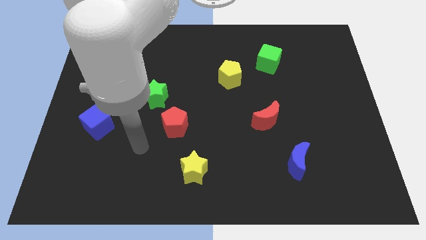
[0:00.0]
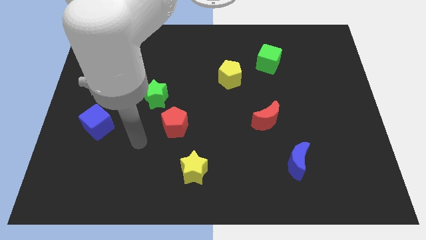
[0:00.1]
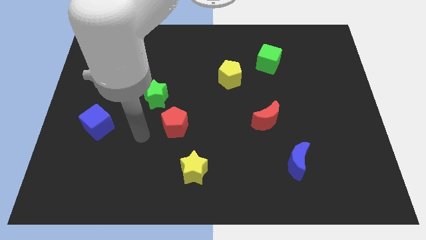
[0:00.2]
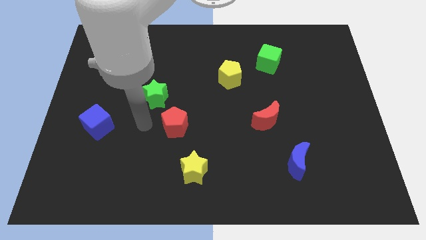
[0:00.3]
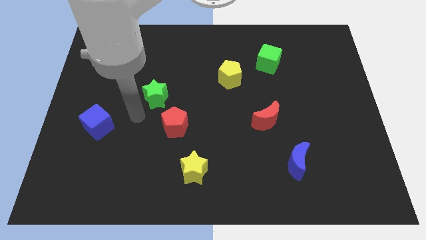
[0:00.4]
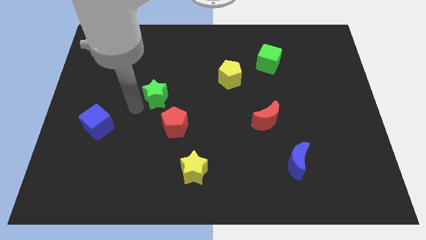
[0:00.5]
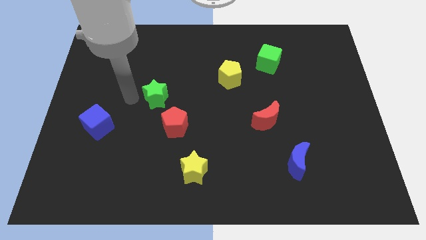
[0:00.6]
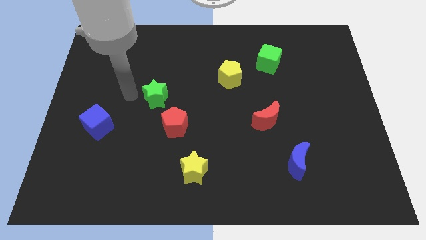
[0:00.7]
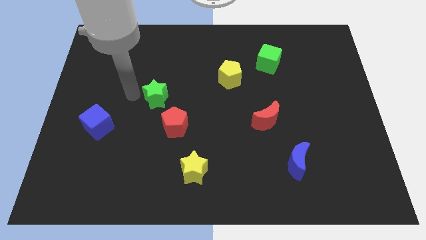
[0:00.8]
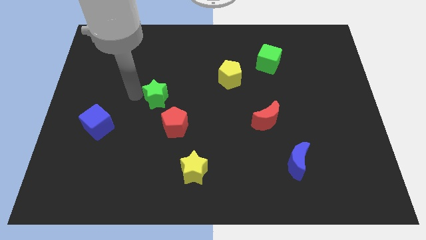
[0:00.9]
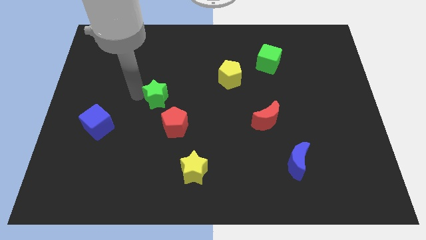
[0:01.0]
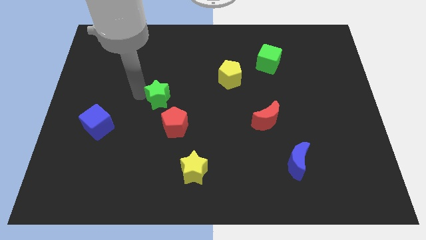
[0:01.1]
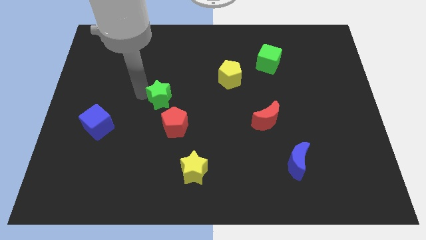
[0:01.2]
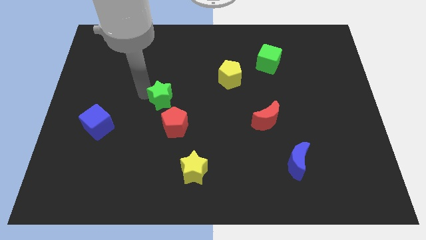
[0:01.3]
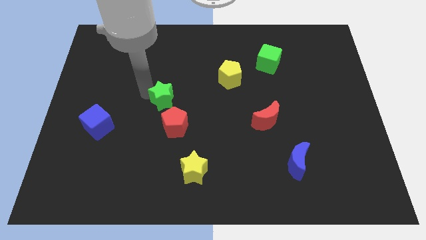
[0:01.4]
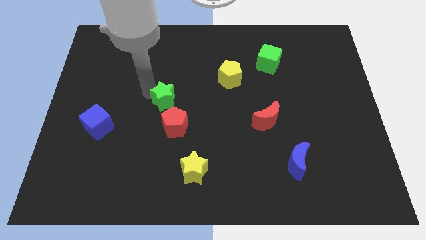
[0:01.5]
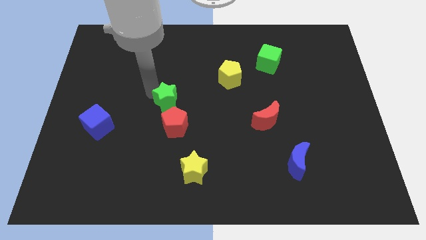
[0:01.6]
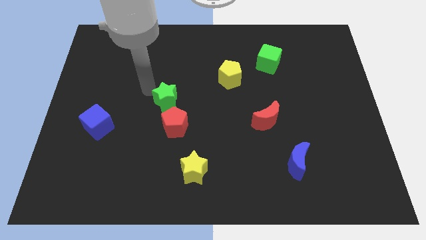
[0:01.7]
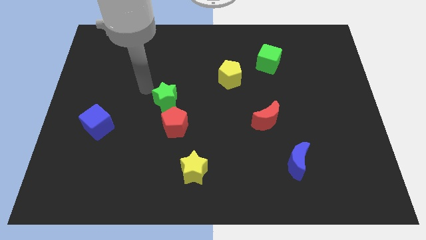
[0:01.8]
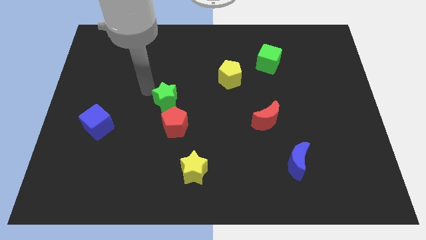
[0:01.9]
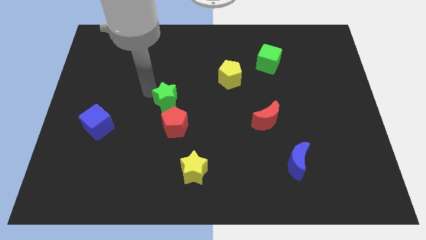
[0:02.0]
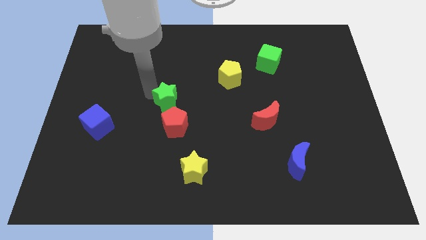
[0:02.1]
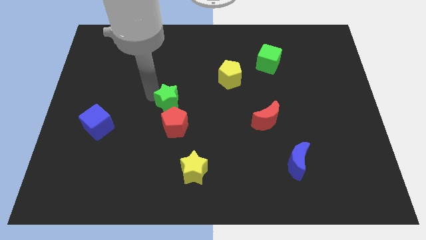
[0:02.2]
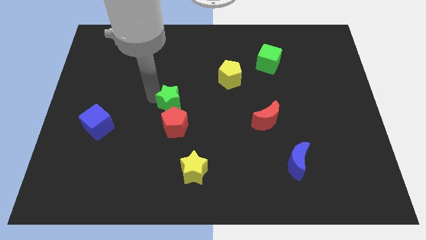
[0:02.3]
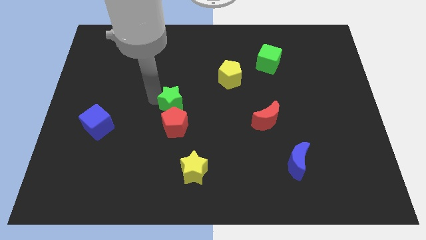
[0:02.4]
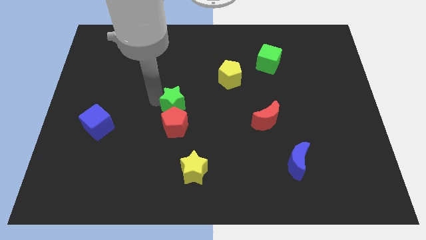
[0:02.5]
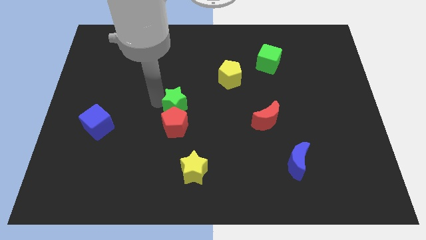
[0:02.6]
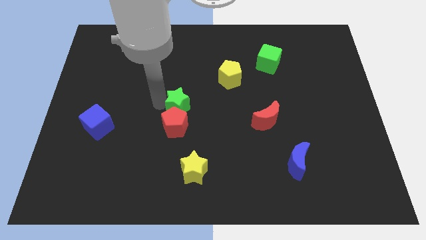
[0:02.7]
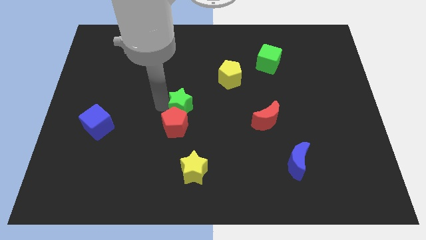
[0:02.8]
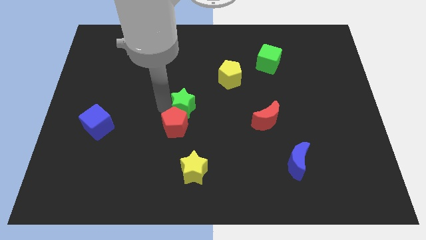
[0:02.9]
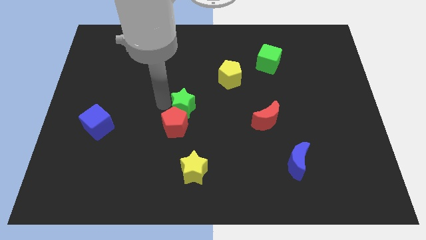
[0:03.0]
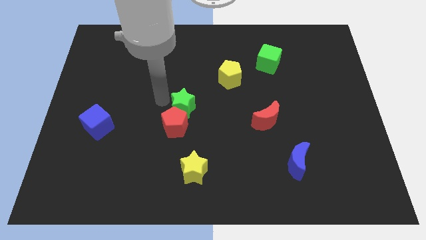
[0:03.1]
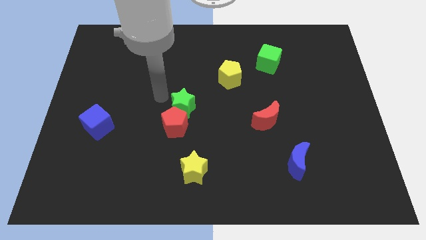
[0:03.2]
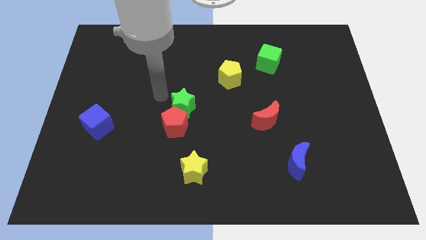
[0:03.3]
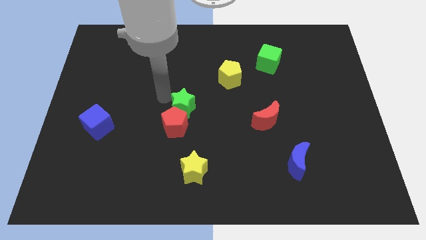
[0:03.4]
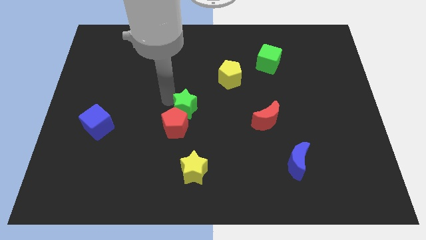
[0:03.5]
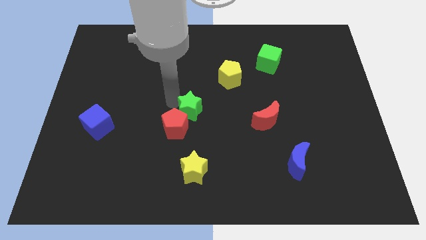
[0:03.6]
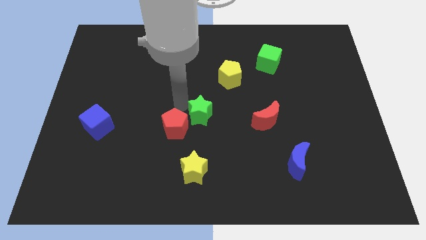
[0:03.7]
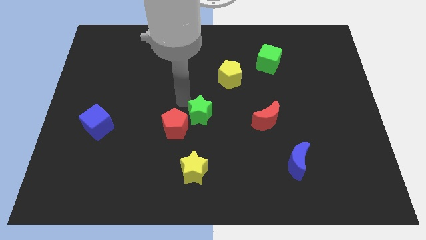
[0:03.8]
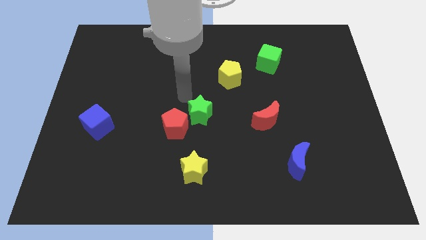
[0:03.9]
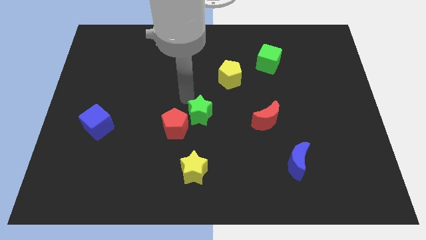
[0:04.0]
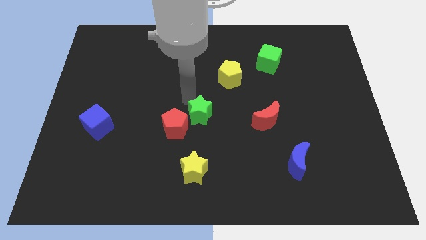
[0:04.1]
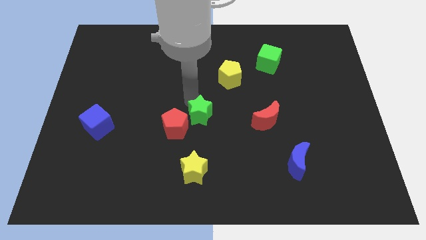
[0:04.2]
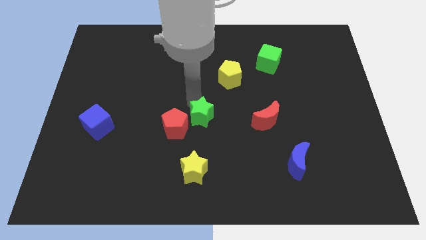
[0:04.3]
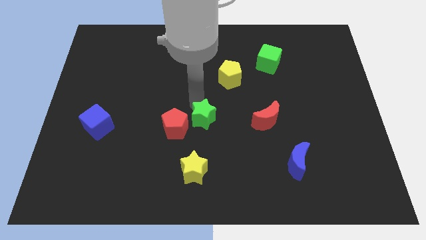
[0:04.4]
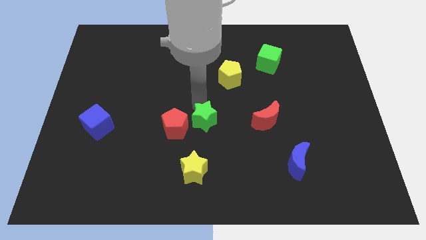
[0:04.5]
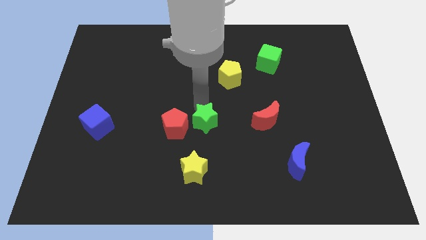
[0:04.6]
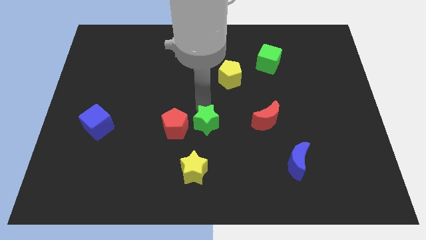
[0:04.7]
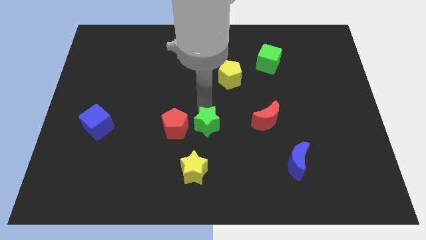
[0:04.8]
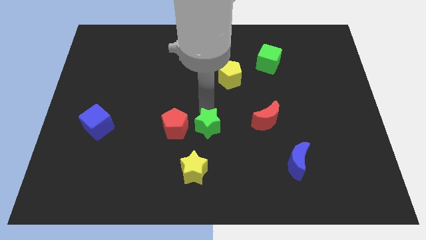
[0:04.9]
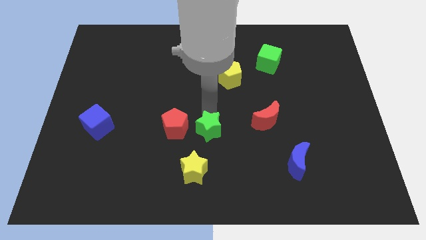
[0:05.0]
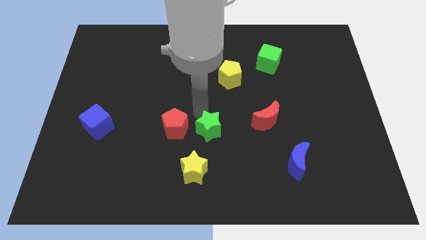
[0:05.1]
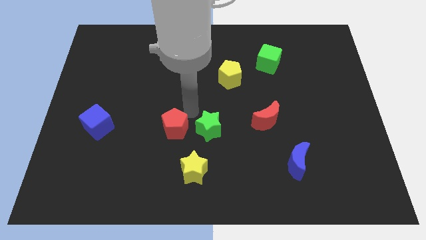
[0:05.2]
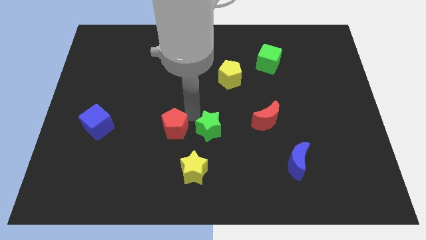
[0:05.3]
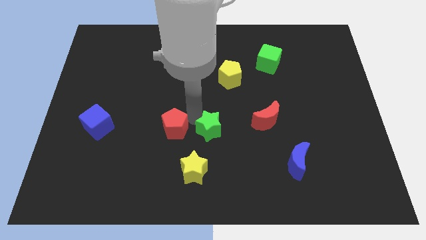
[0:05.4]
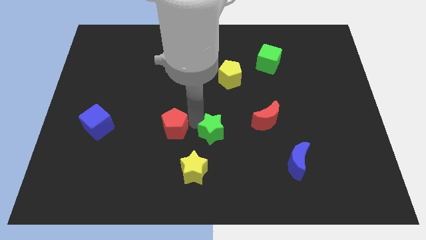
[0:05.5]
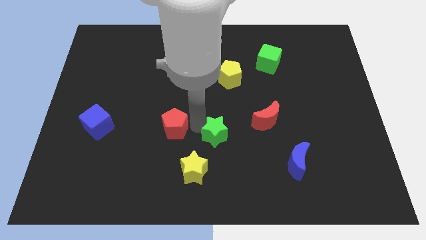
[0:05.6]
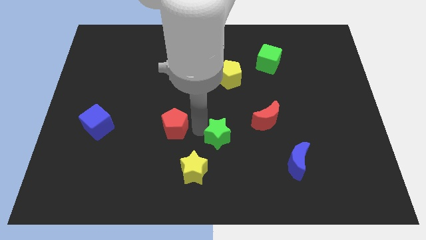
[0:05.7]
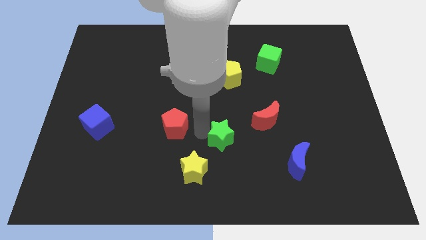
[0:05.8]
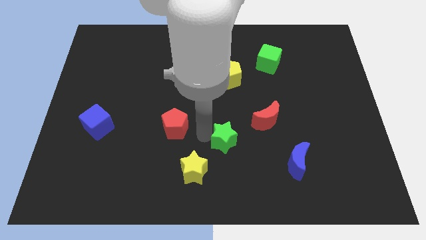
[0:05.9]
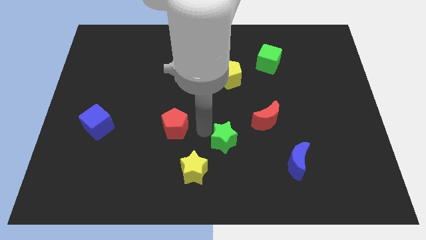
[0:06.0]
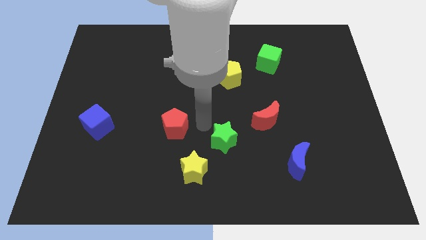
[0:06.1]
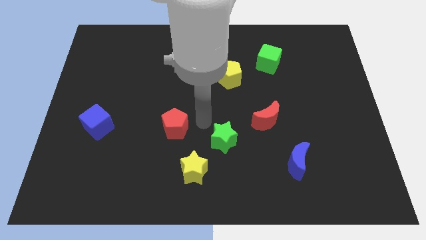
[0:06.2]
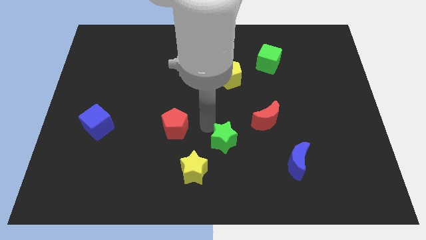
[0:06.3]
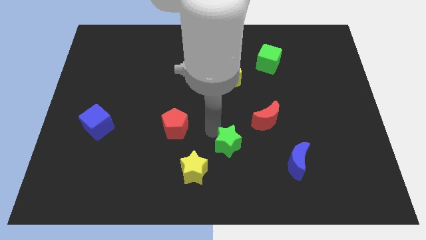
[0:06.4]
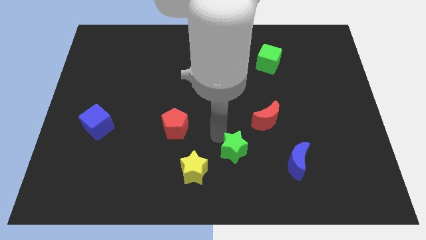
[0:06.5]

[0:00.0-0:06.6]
slide the green star just left of the blue moon

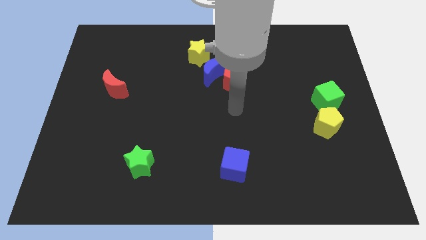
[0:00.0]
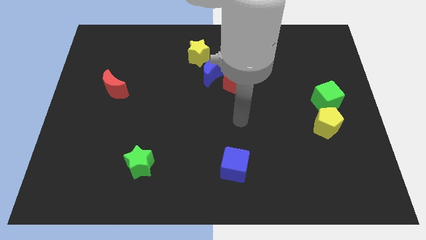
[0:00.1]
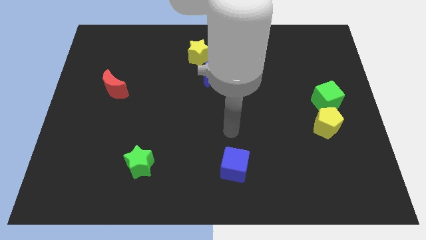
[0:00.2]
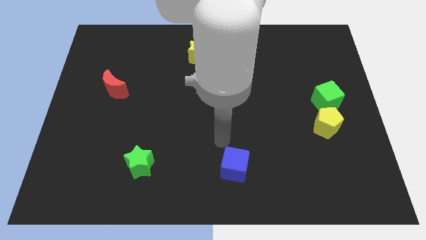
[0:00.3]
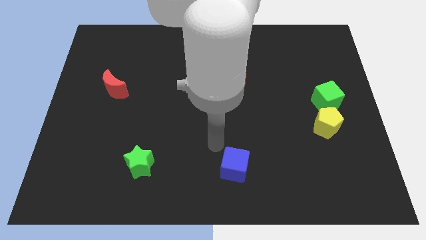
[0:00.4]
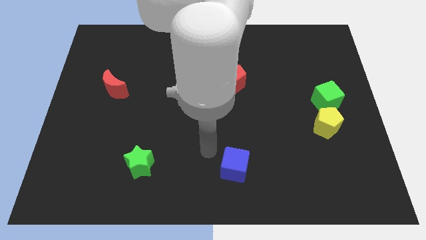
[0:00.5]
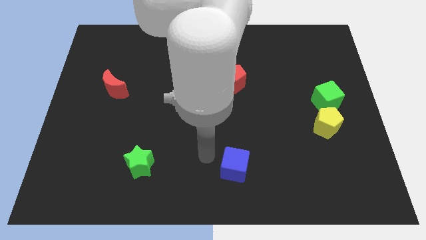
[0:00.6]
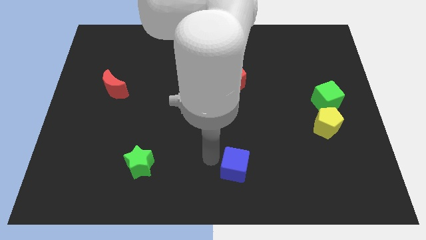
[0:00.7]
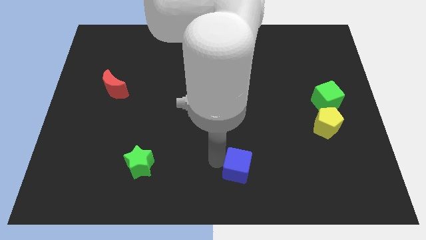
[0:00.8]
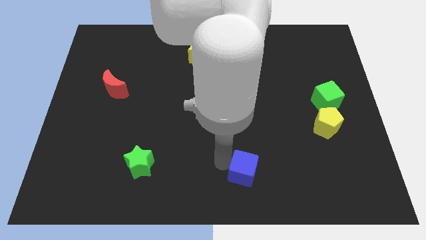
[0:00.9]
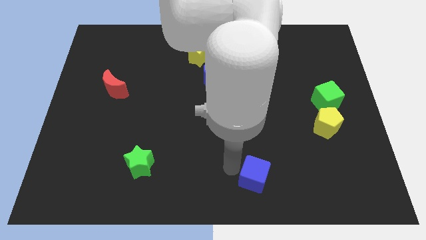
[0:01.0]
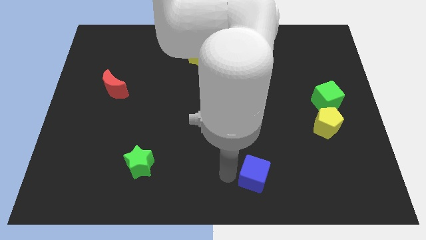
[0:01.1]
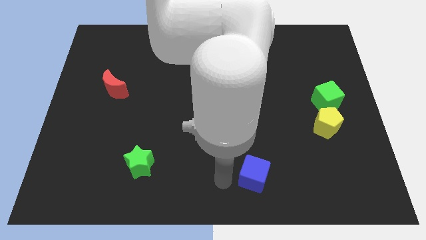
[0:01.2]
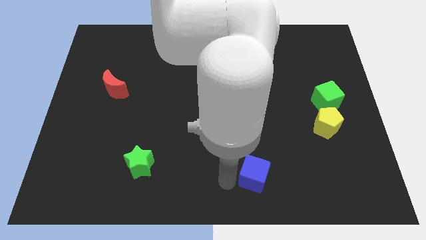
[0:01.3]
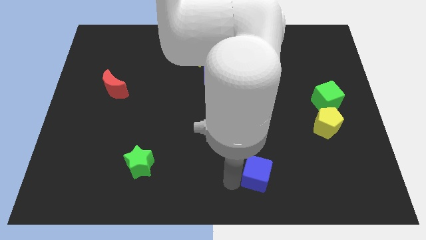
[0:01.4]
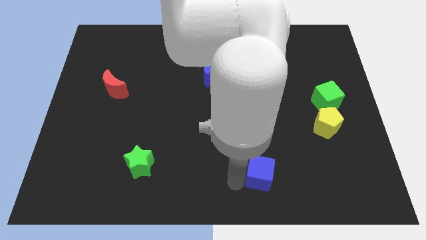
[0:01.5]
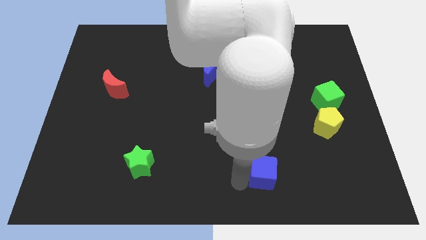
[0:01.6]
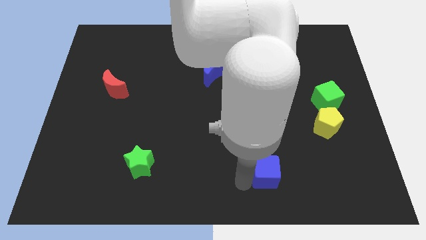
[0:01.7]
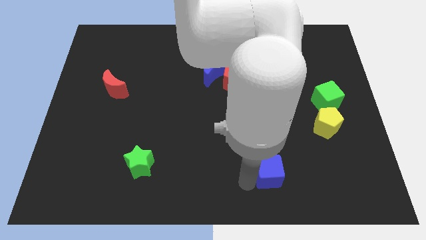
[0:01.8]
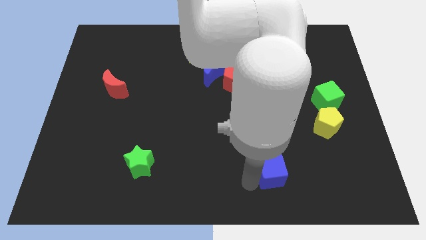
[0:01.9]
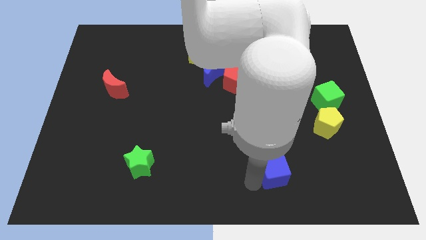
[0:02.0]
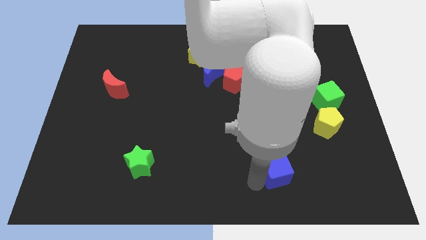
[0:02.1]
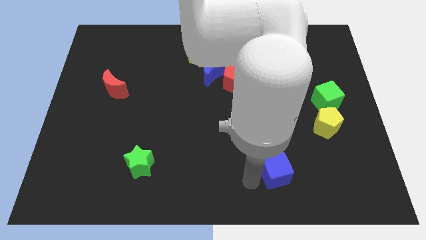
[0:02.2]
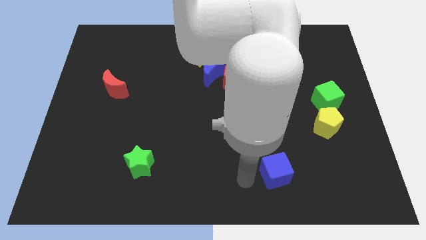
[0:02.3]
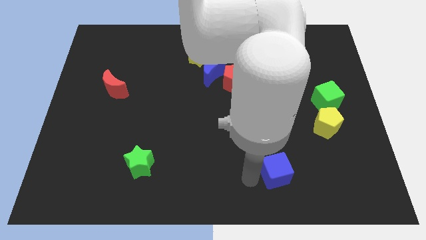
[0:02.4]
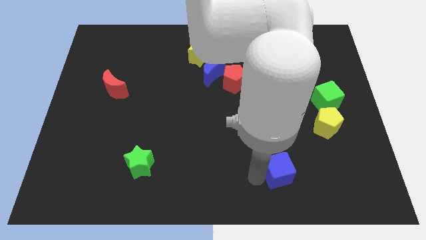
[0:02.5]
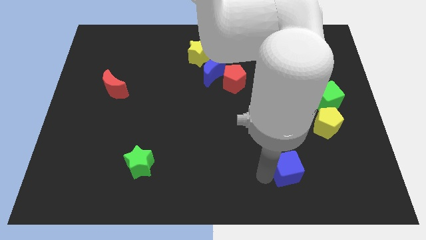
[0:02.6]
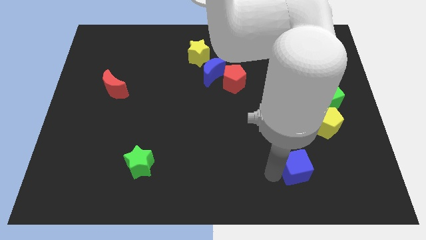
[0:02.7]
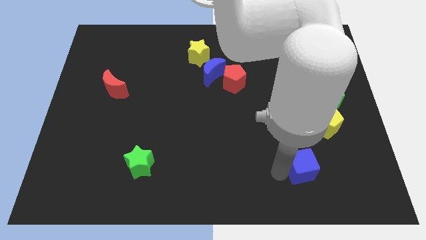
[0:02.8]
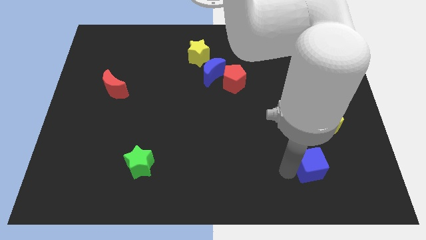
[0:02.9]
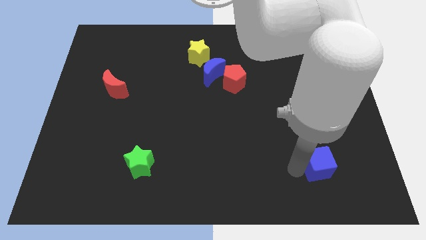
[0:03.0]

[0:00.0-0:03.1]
slide the blue cube to the bottom side of the yellow pentagon
